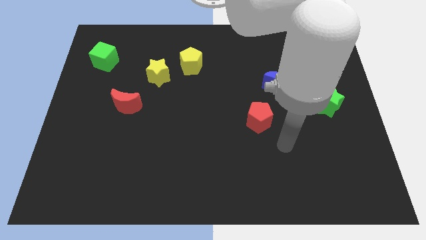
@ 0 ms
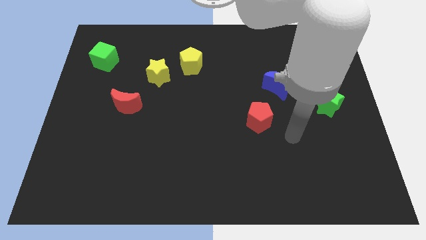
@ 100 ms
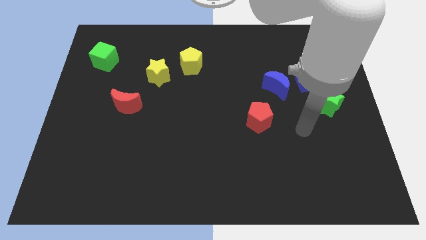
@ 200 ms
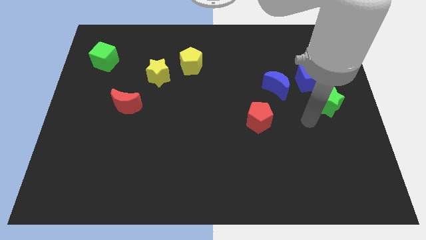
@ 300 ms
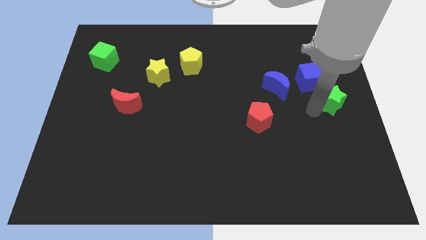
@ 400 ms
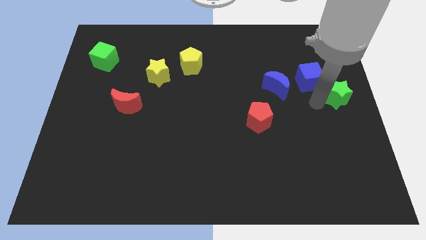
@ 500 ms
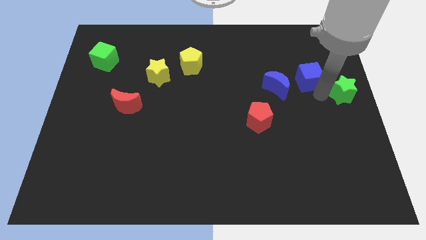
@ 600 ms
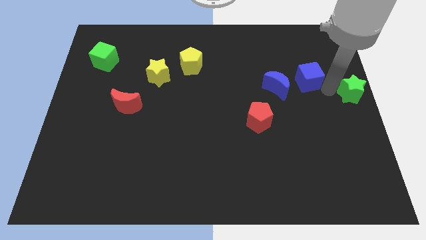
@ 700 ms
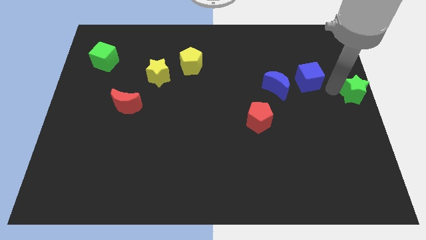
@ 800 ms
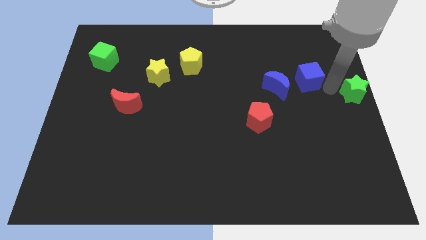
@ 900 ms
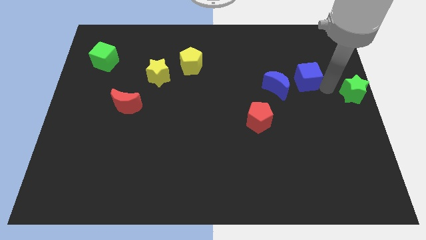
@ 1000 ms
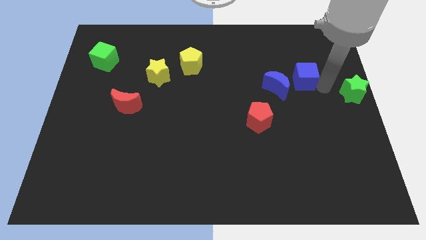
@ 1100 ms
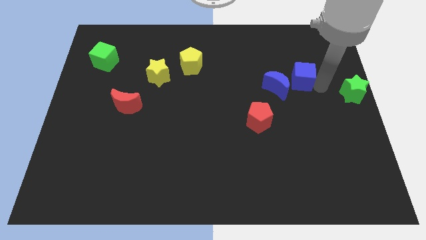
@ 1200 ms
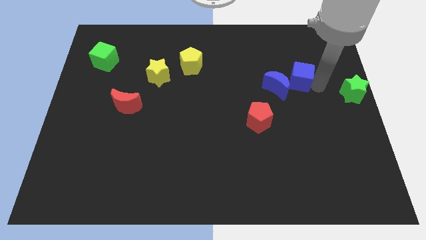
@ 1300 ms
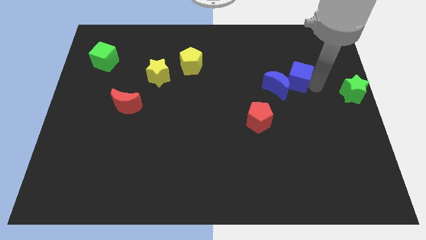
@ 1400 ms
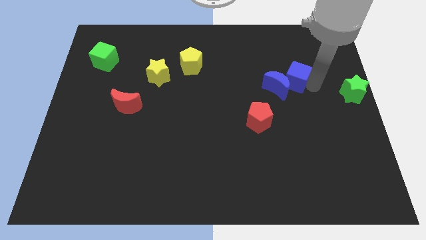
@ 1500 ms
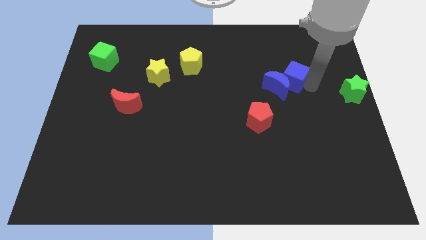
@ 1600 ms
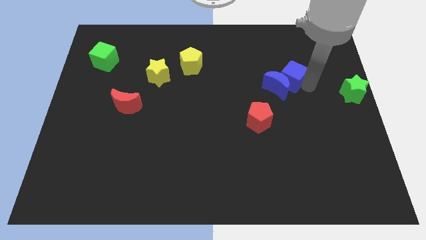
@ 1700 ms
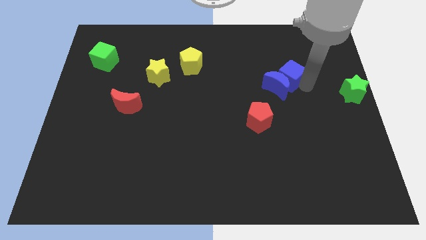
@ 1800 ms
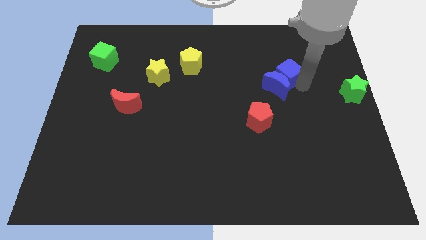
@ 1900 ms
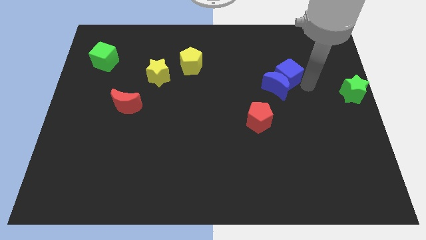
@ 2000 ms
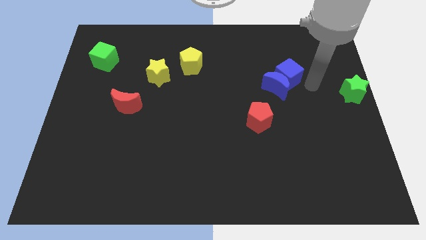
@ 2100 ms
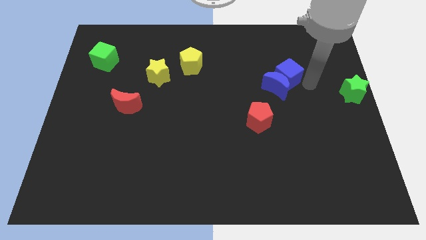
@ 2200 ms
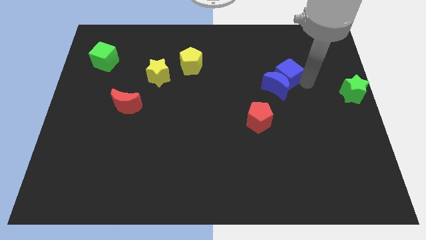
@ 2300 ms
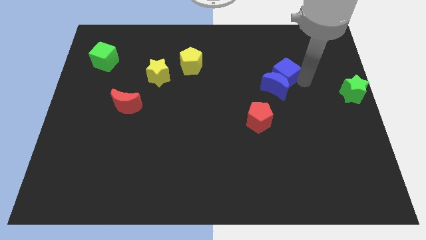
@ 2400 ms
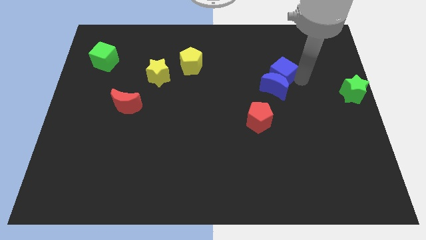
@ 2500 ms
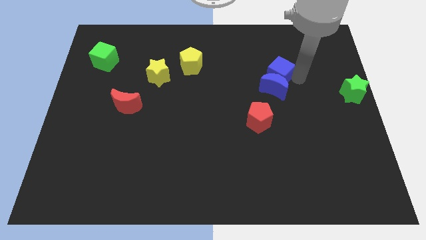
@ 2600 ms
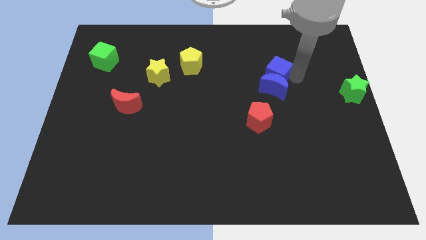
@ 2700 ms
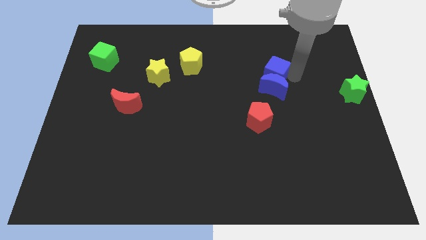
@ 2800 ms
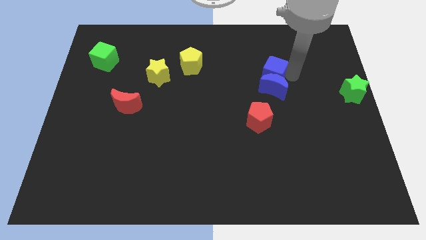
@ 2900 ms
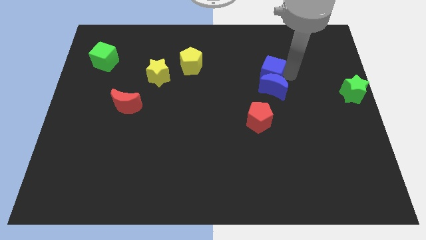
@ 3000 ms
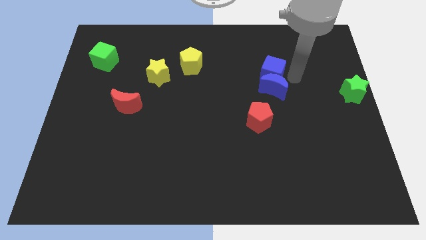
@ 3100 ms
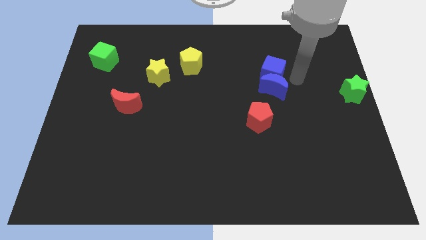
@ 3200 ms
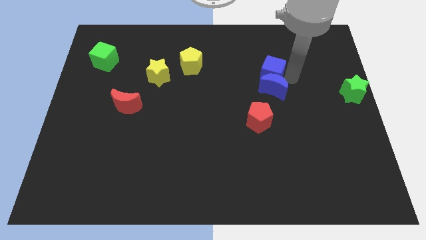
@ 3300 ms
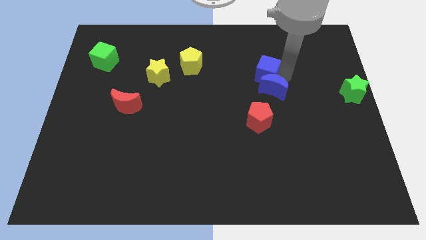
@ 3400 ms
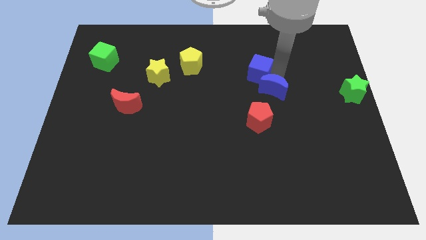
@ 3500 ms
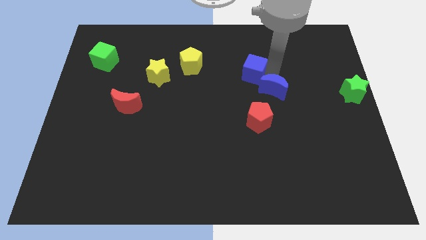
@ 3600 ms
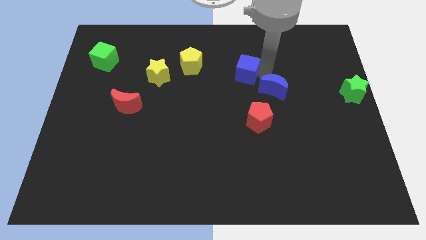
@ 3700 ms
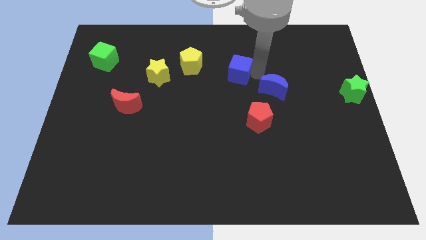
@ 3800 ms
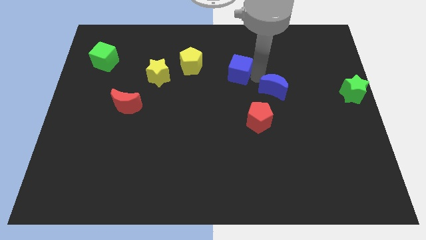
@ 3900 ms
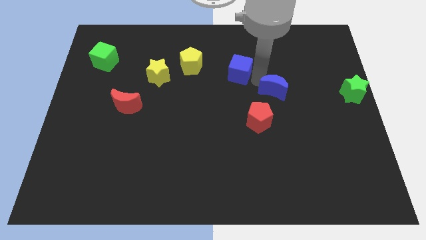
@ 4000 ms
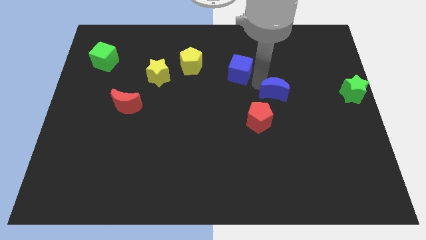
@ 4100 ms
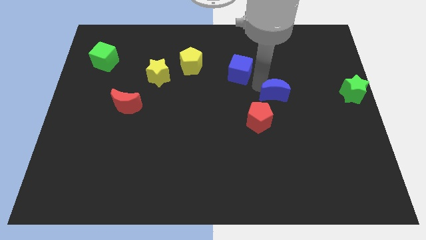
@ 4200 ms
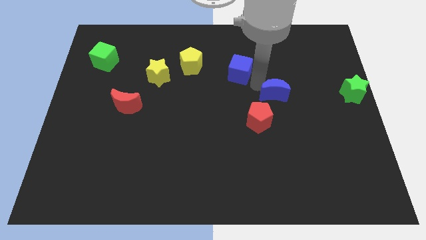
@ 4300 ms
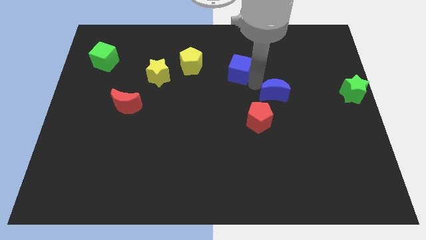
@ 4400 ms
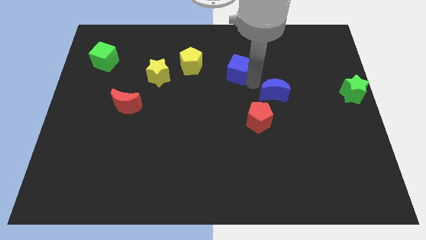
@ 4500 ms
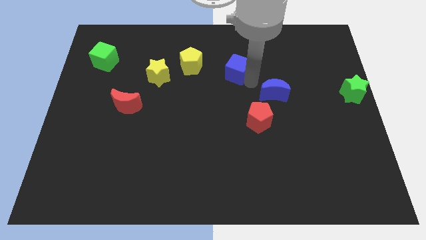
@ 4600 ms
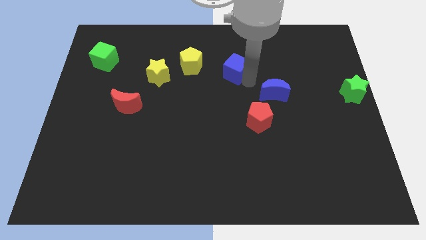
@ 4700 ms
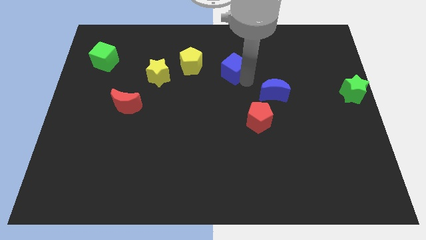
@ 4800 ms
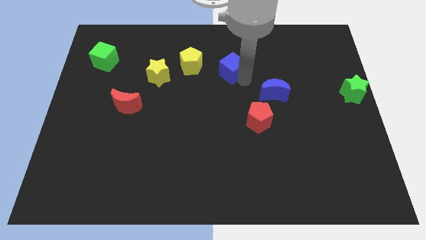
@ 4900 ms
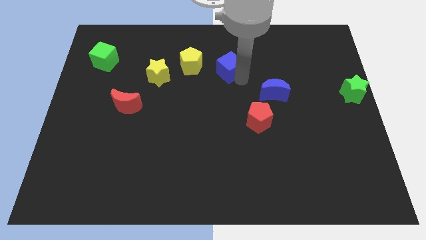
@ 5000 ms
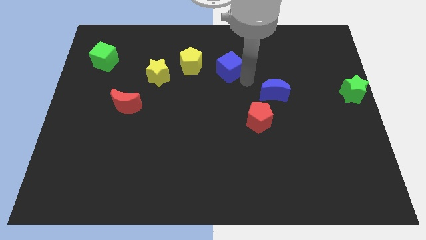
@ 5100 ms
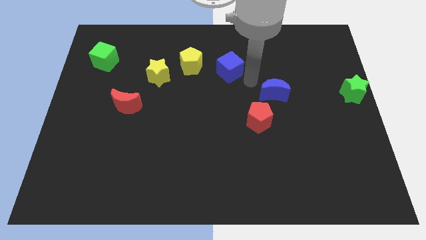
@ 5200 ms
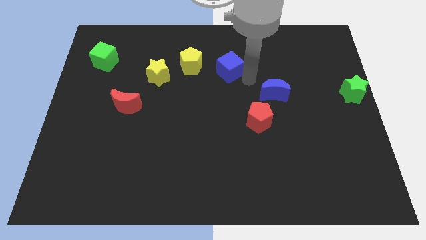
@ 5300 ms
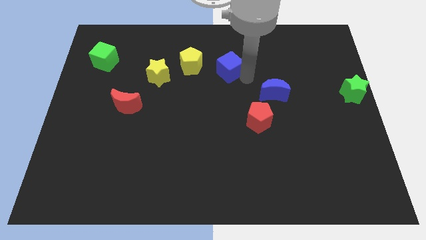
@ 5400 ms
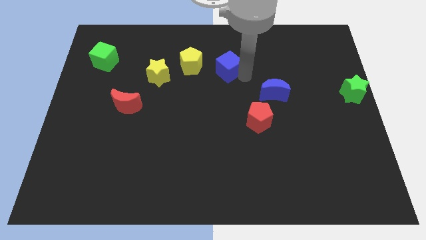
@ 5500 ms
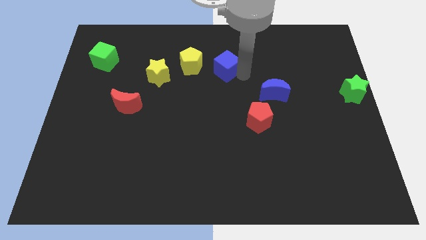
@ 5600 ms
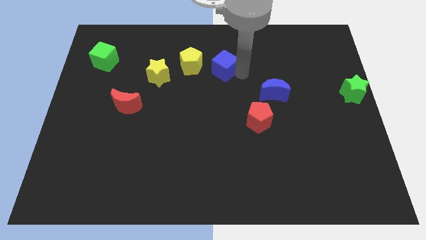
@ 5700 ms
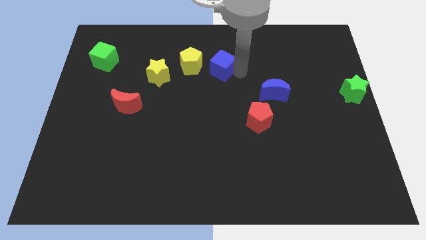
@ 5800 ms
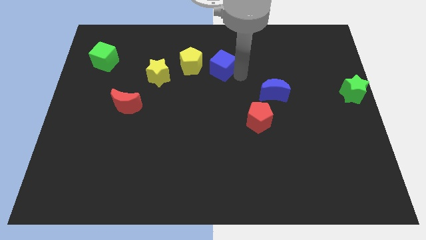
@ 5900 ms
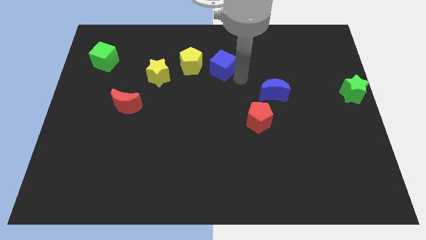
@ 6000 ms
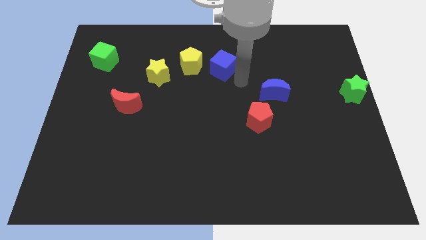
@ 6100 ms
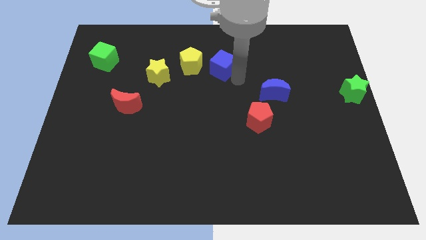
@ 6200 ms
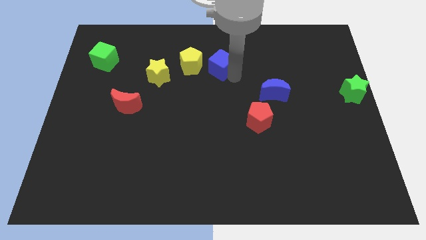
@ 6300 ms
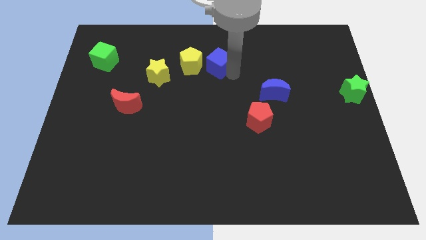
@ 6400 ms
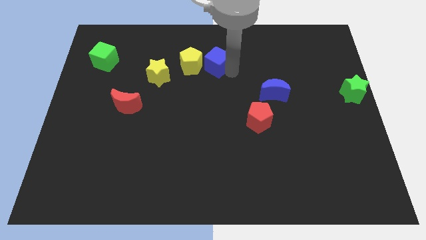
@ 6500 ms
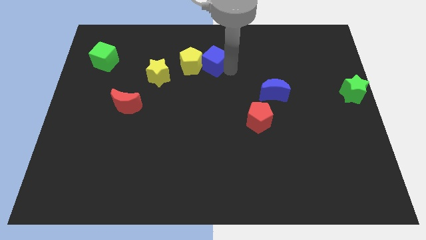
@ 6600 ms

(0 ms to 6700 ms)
slide the blue cube to the yellow pentagon

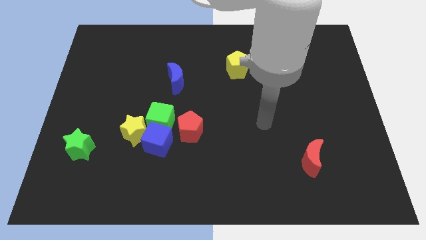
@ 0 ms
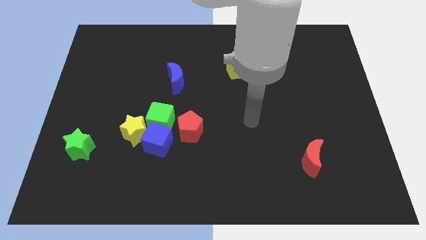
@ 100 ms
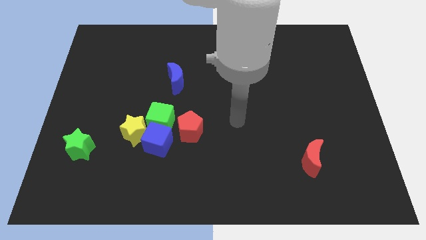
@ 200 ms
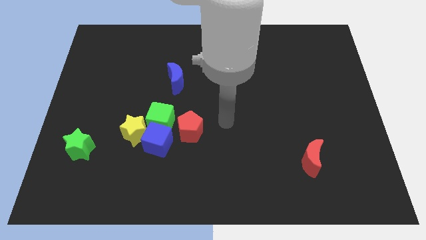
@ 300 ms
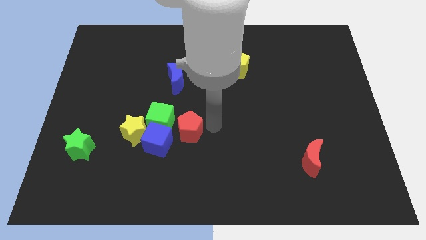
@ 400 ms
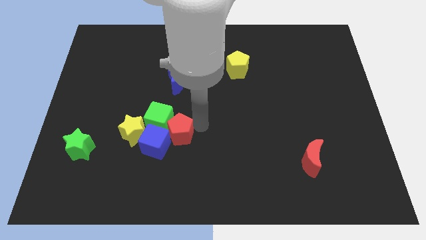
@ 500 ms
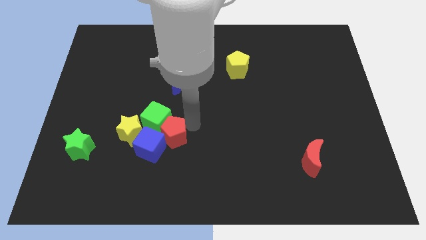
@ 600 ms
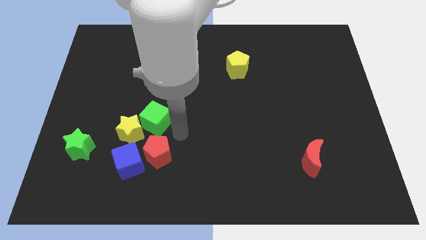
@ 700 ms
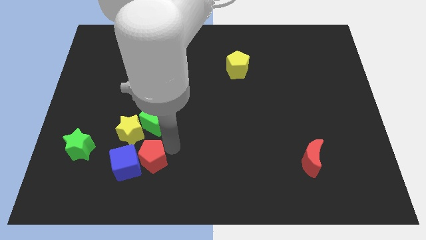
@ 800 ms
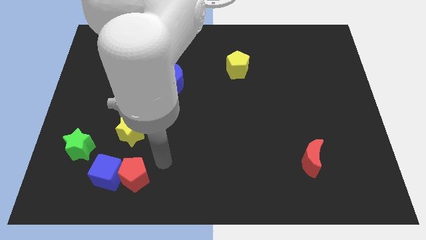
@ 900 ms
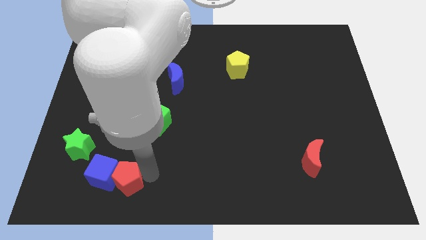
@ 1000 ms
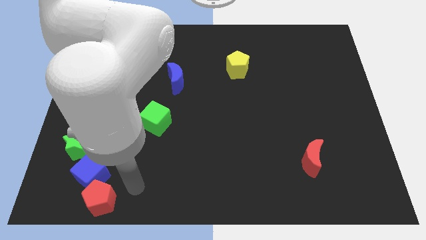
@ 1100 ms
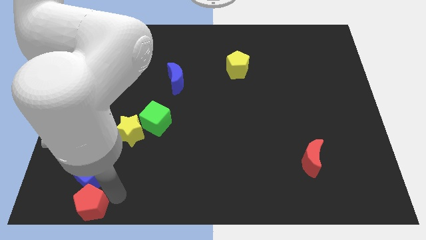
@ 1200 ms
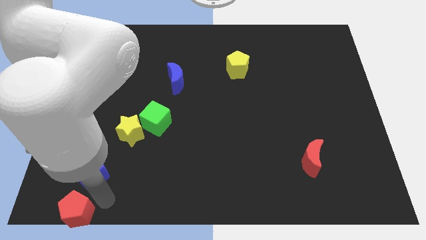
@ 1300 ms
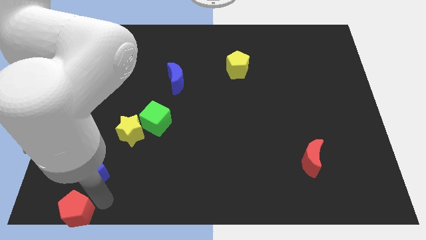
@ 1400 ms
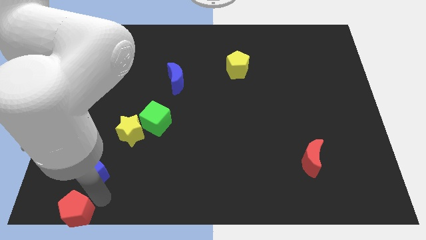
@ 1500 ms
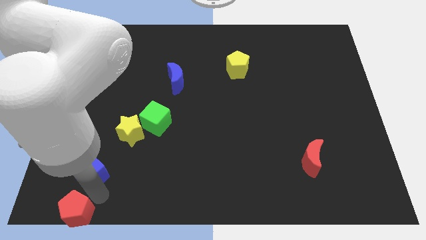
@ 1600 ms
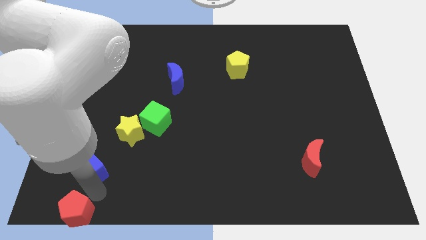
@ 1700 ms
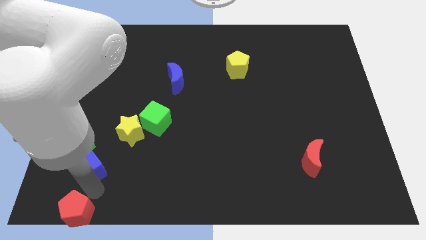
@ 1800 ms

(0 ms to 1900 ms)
slide the blue cube close to the green star
